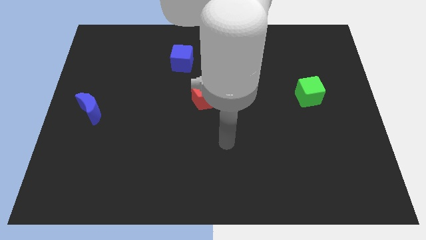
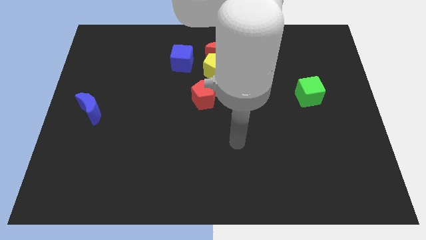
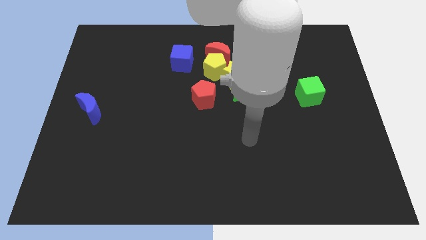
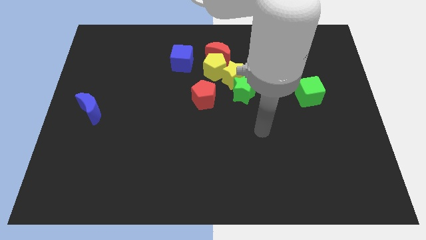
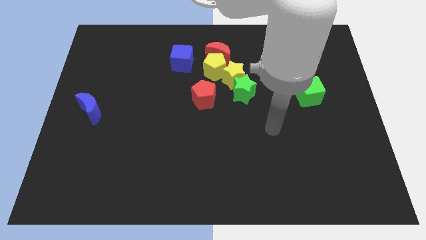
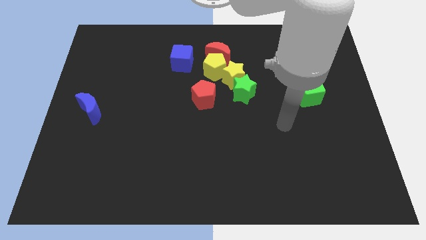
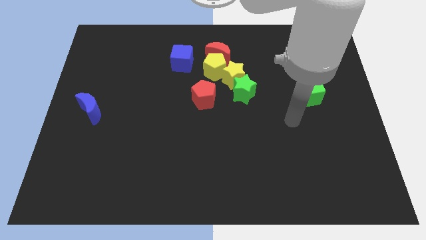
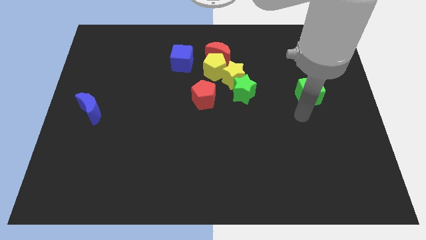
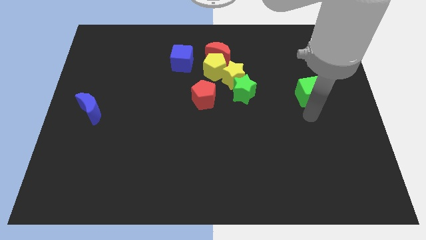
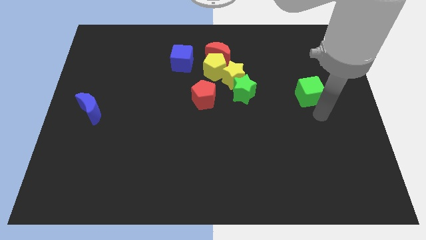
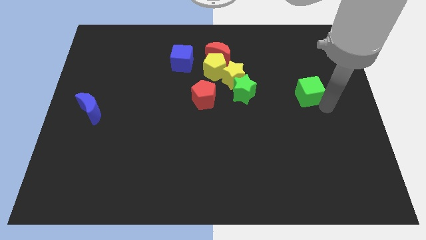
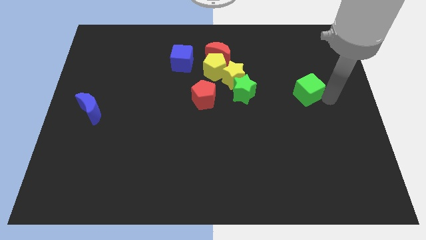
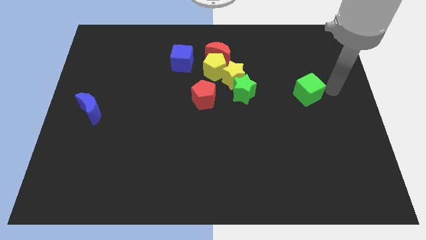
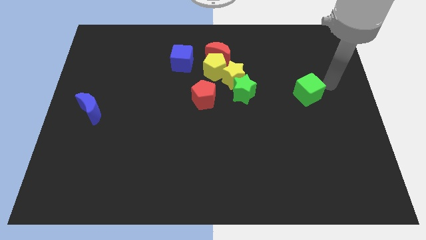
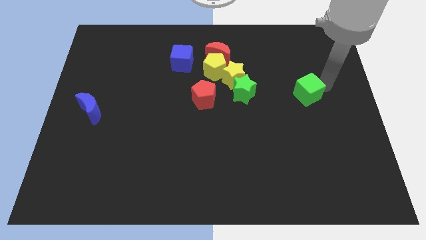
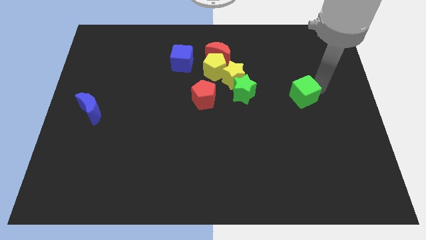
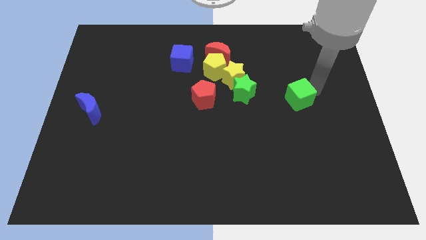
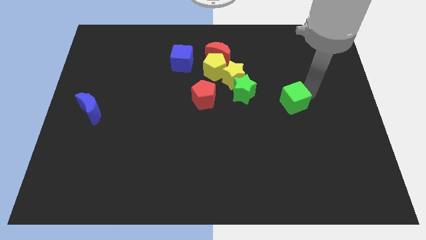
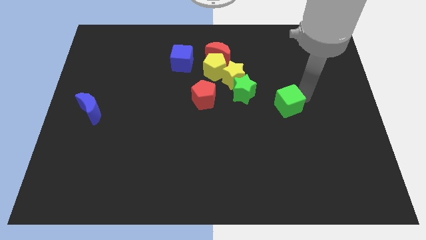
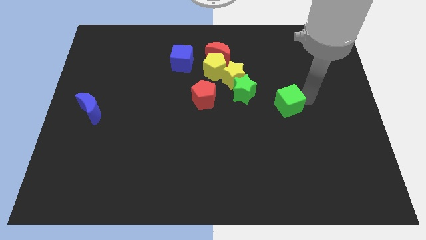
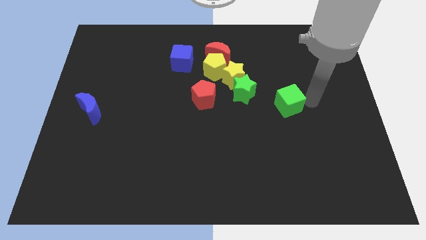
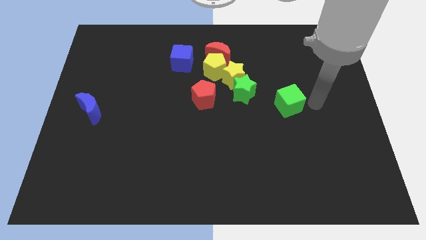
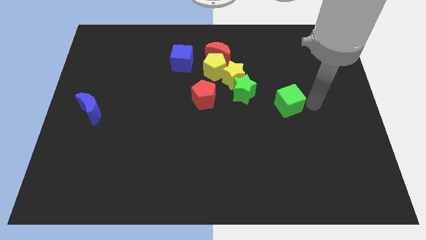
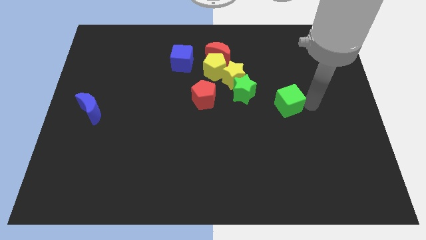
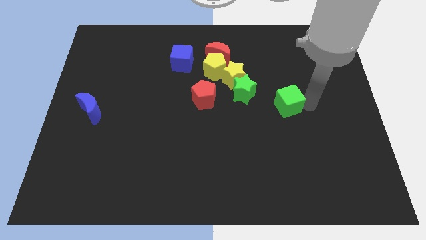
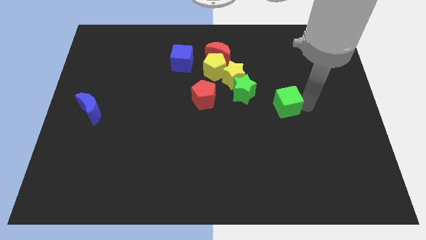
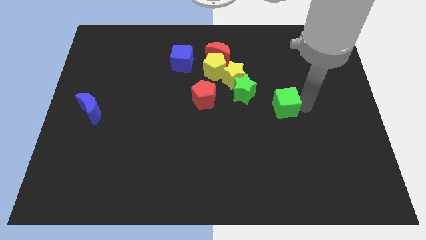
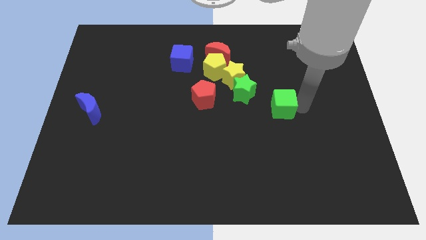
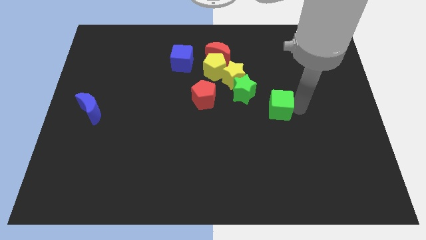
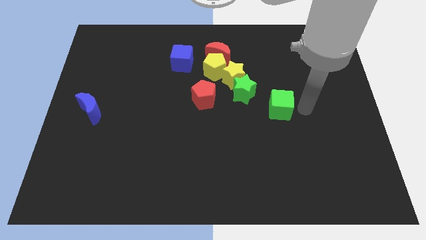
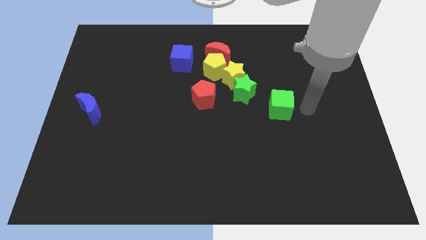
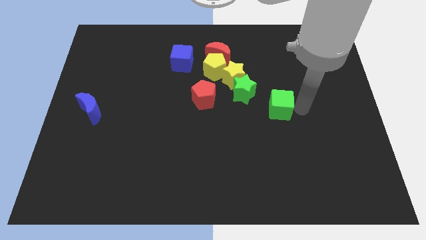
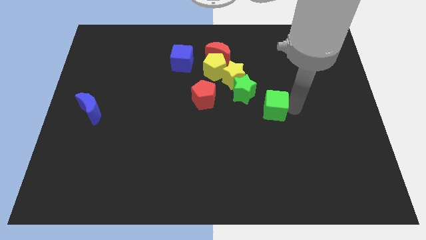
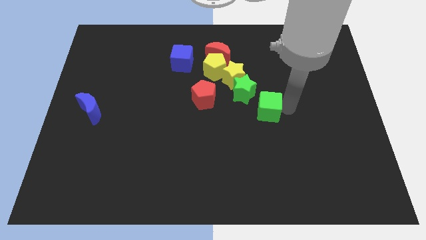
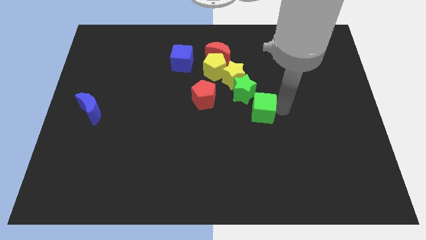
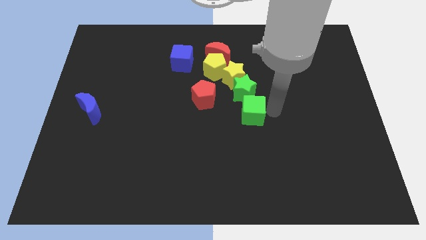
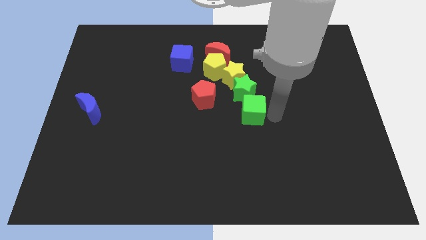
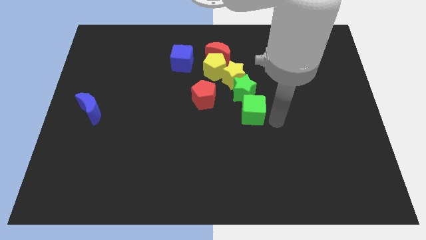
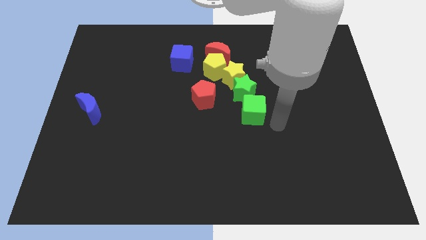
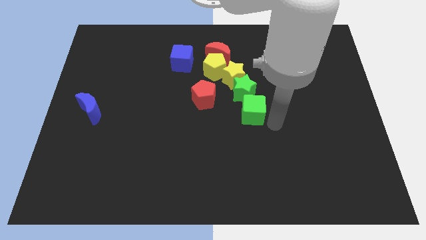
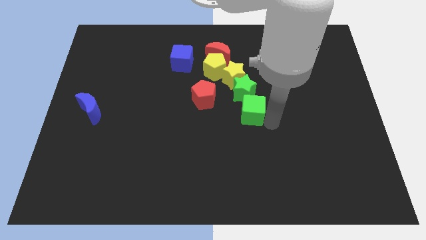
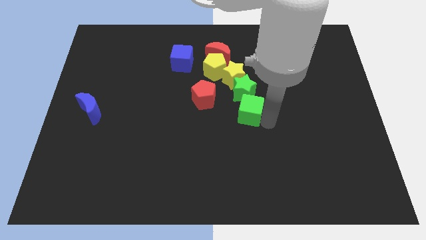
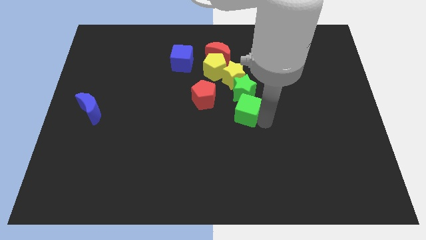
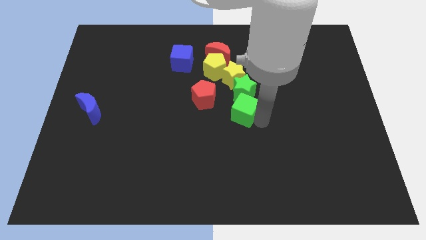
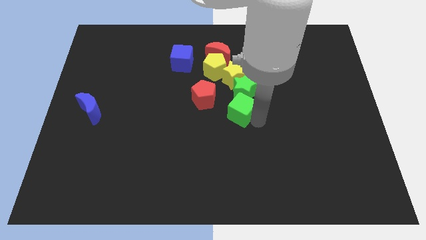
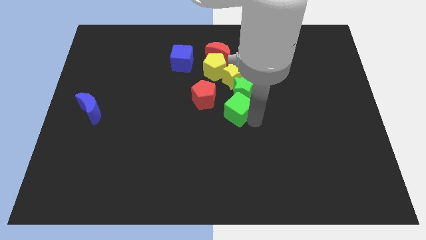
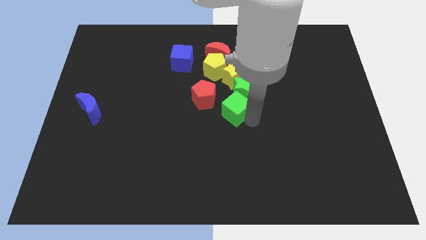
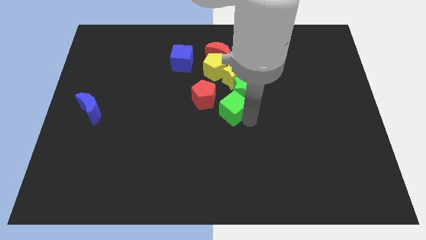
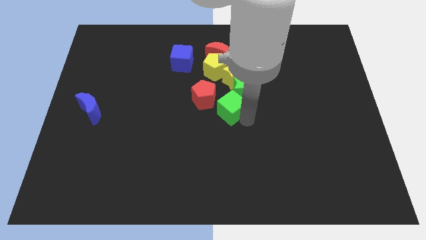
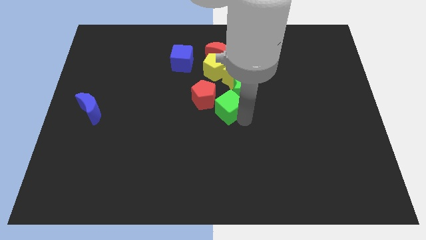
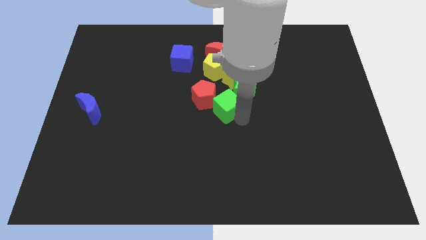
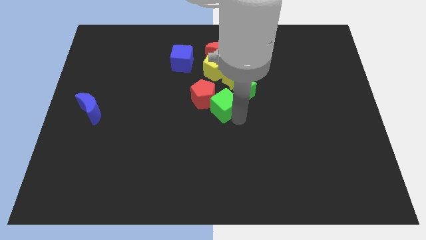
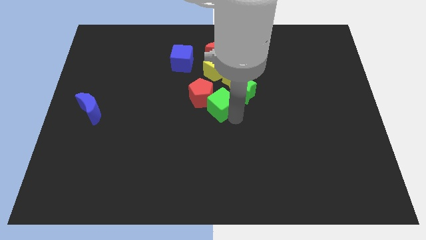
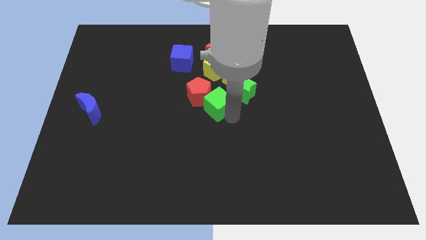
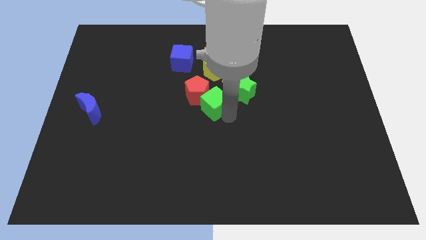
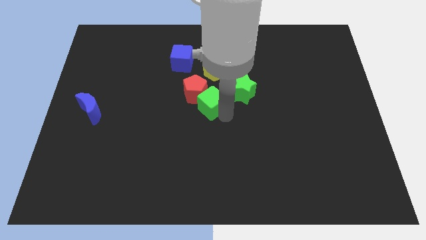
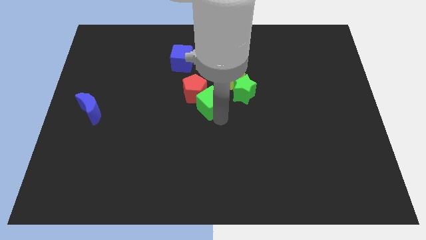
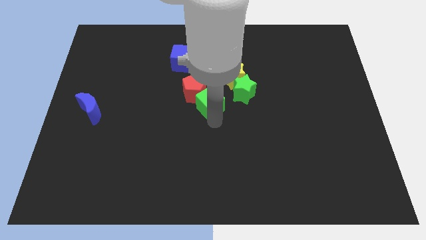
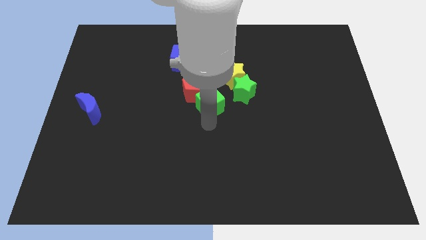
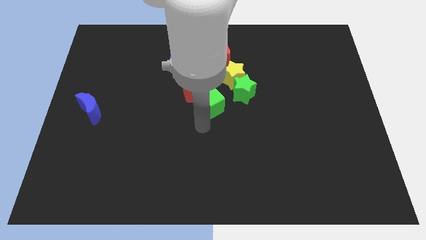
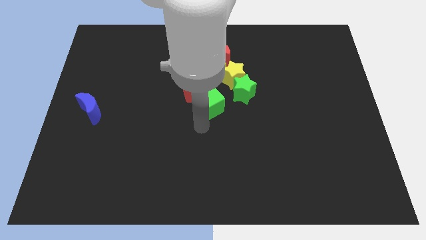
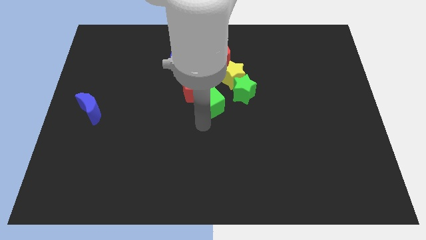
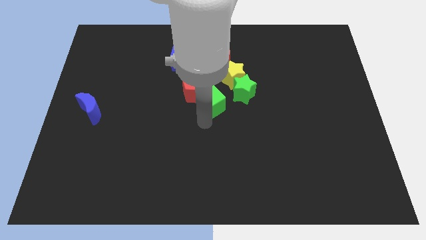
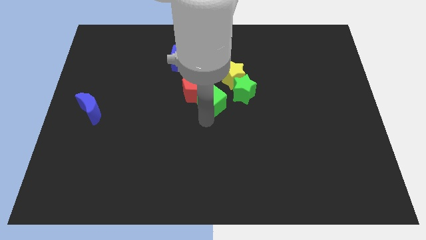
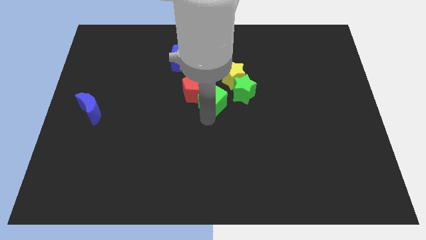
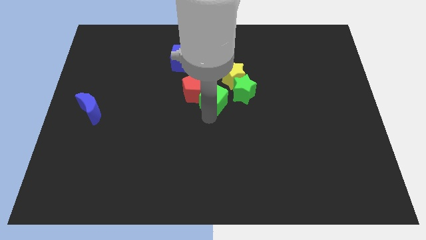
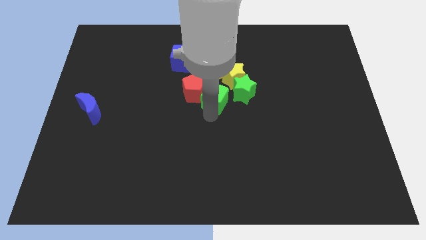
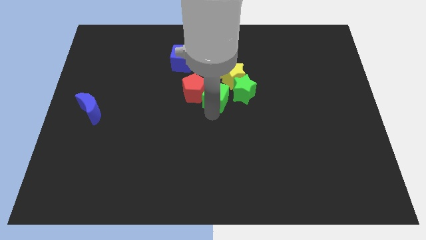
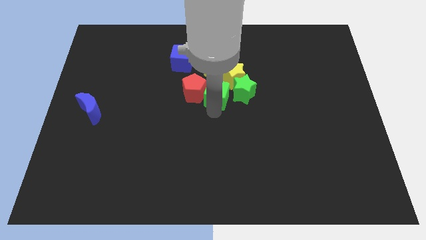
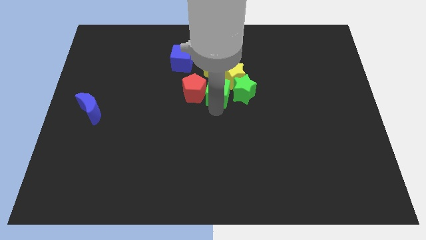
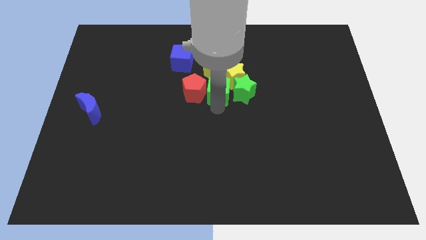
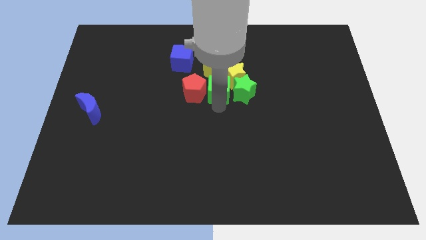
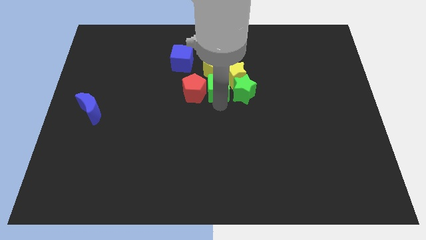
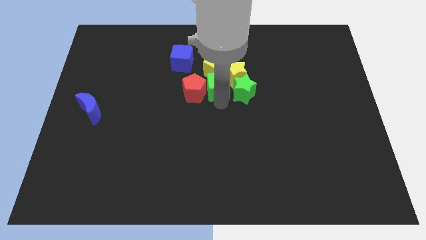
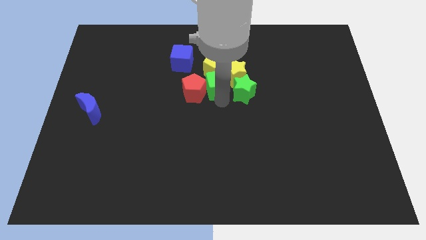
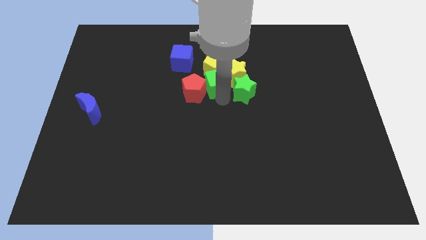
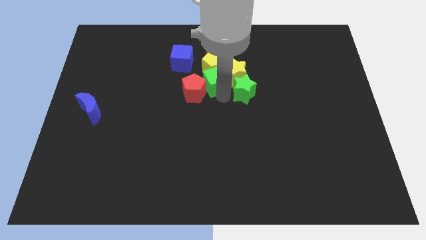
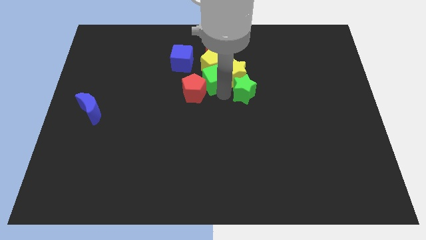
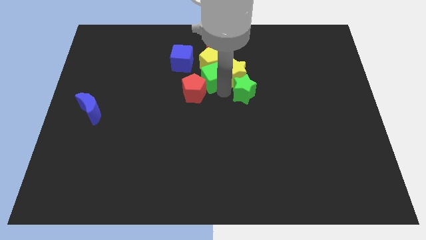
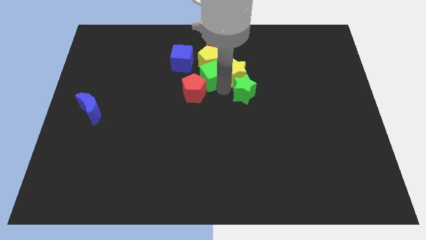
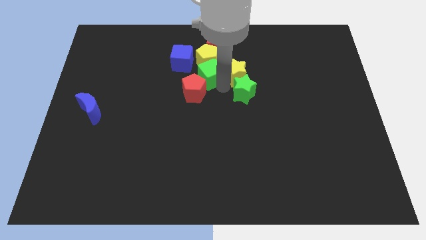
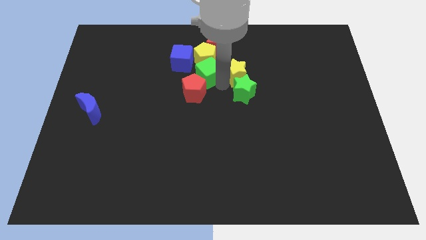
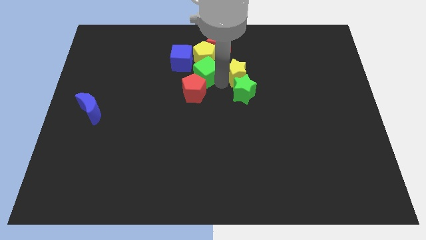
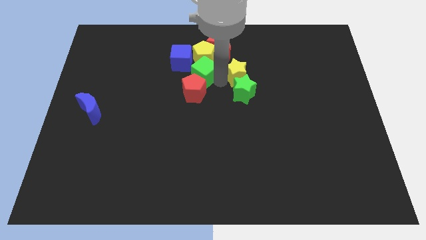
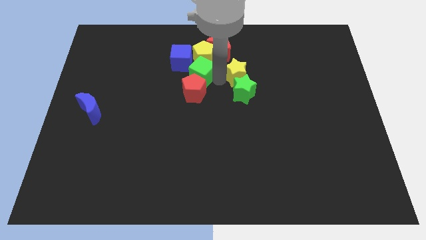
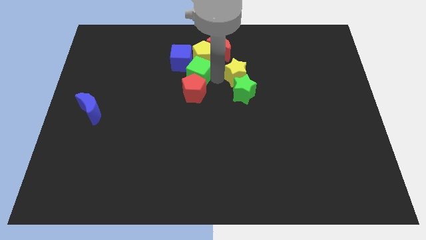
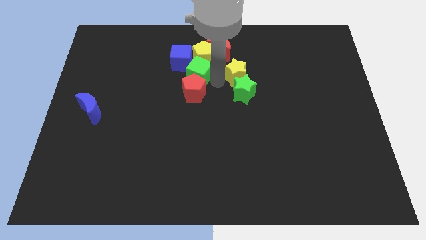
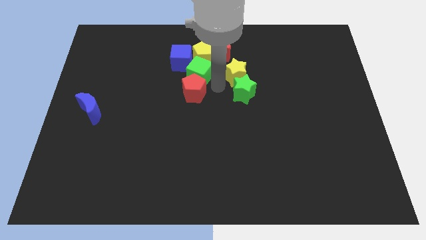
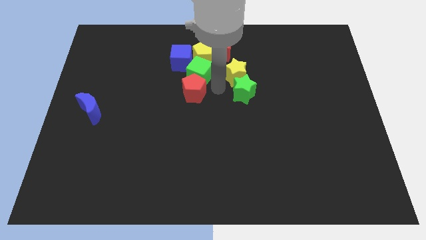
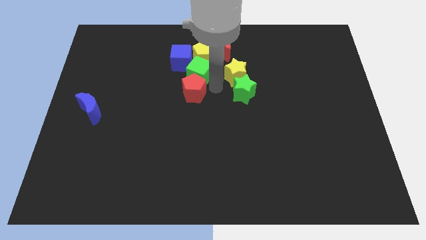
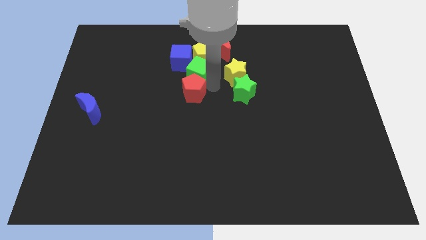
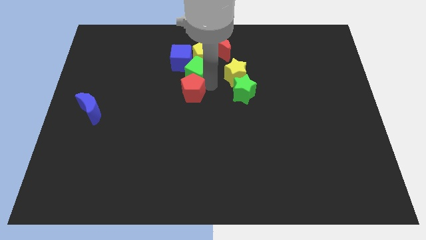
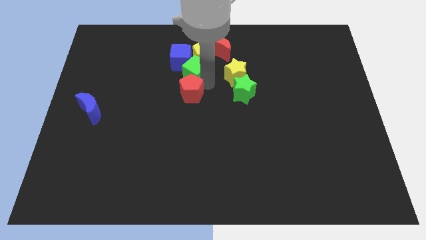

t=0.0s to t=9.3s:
slide the green cube next to the blue cube
